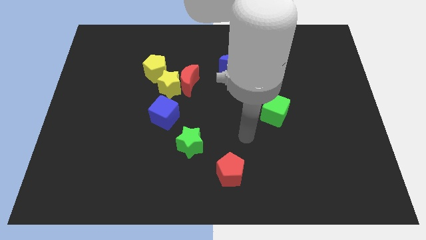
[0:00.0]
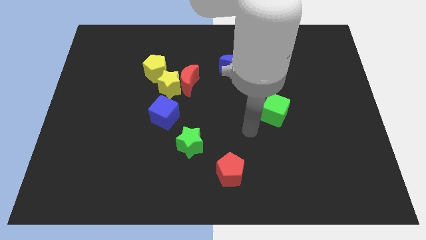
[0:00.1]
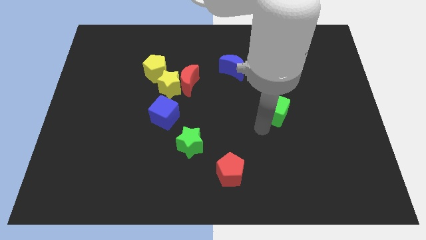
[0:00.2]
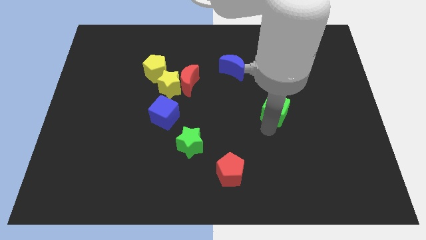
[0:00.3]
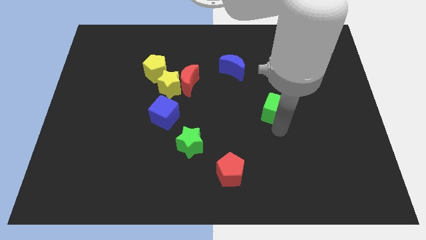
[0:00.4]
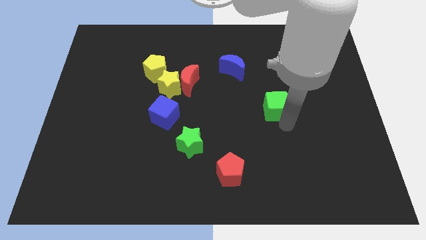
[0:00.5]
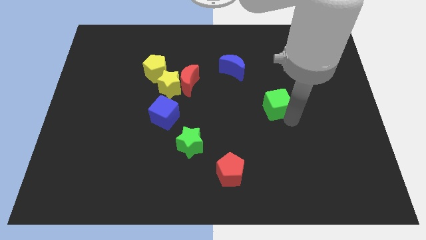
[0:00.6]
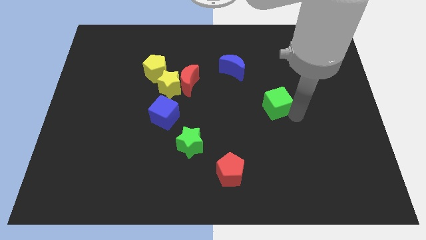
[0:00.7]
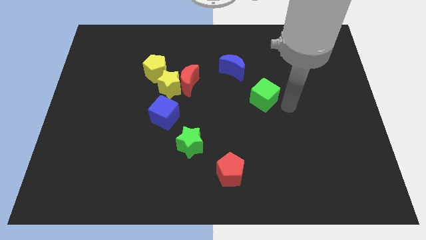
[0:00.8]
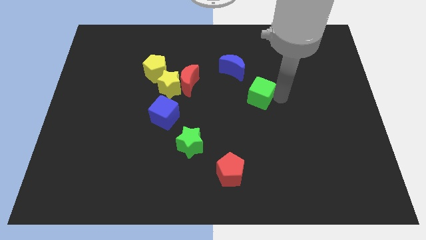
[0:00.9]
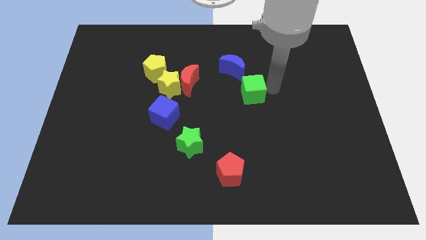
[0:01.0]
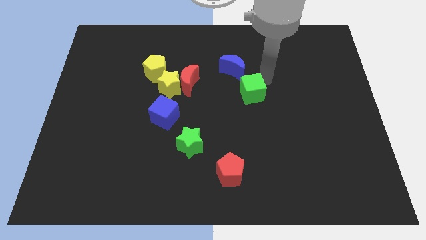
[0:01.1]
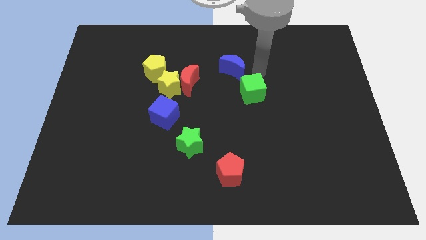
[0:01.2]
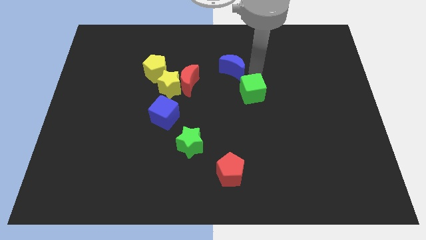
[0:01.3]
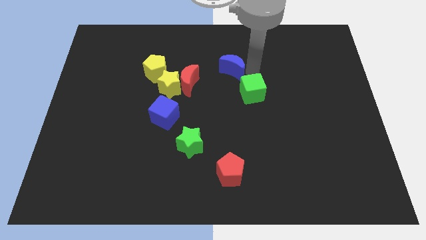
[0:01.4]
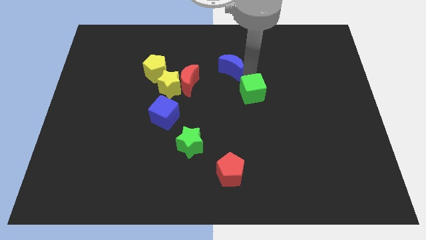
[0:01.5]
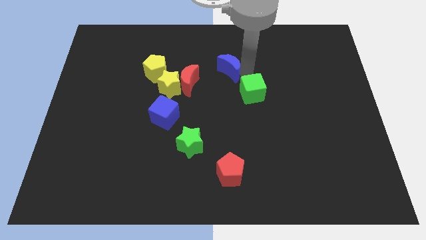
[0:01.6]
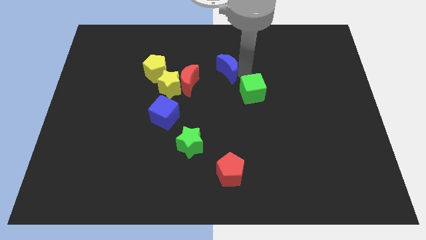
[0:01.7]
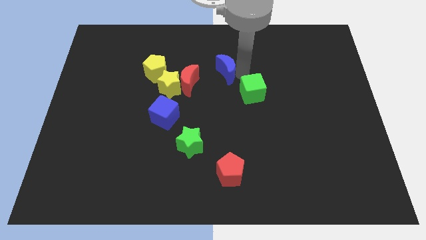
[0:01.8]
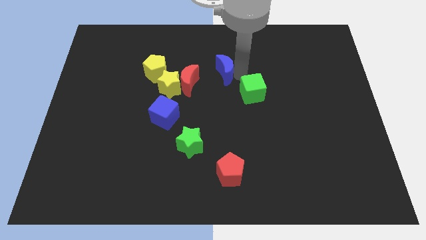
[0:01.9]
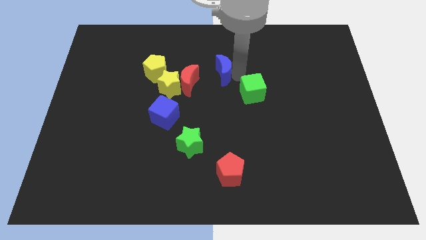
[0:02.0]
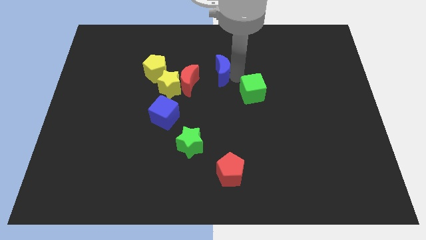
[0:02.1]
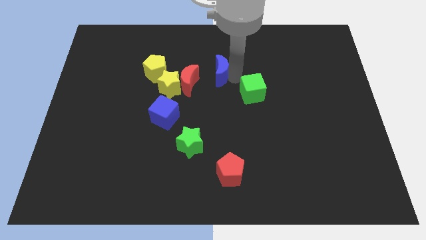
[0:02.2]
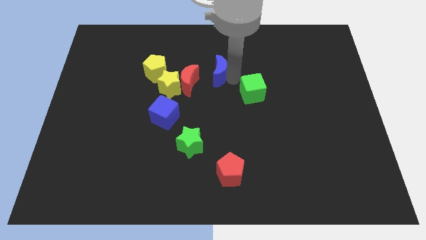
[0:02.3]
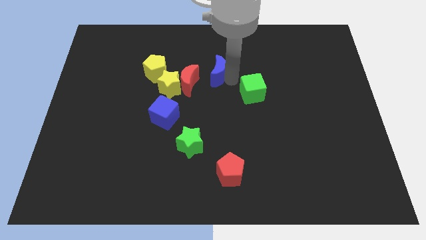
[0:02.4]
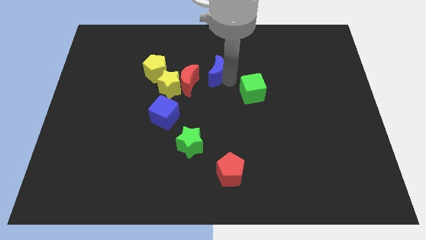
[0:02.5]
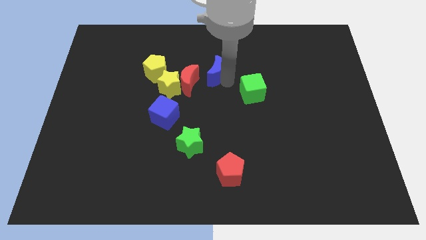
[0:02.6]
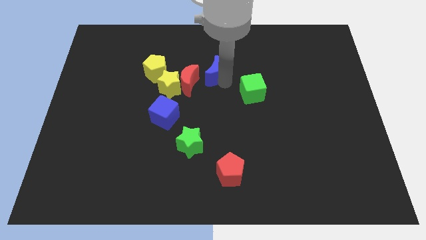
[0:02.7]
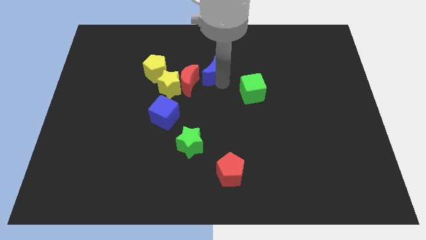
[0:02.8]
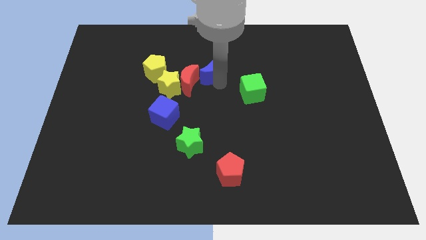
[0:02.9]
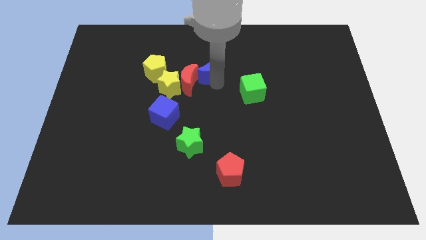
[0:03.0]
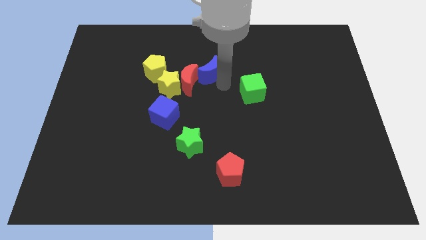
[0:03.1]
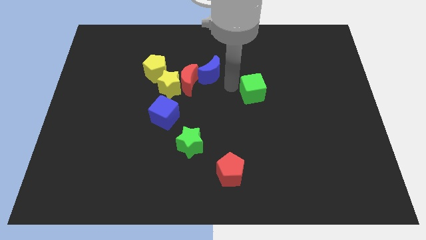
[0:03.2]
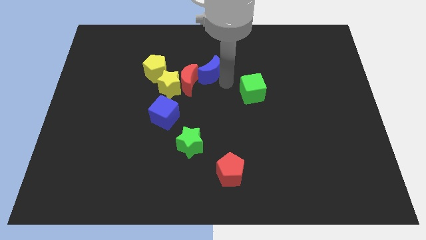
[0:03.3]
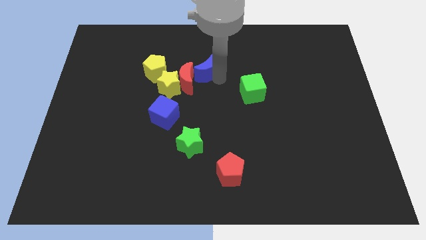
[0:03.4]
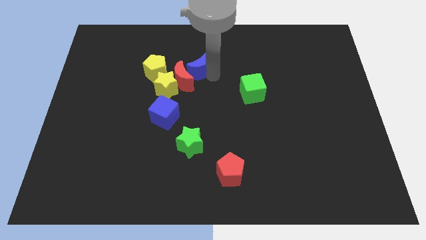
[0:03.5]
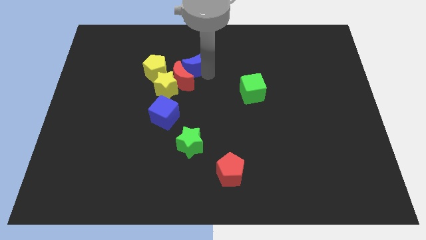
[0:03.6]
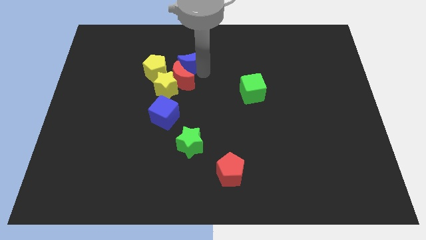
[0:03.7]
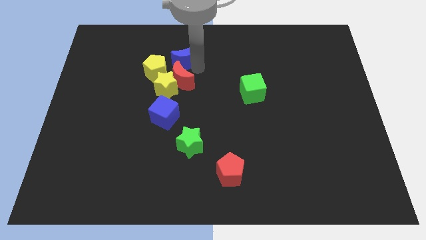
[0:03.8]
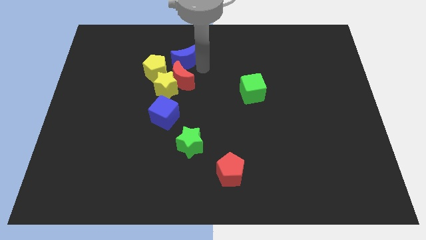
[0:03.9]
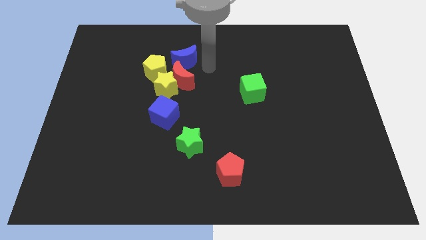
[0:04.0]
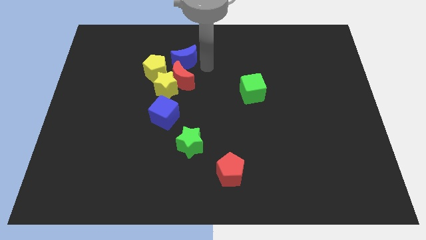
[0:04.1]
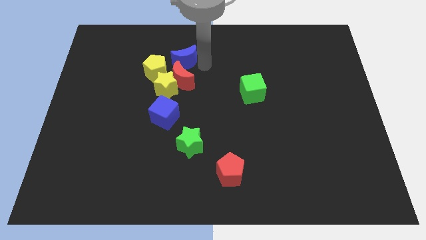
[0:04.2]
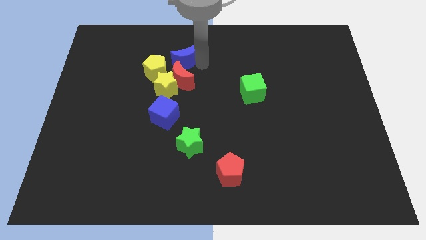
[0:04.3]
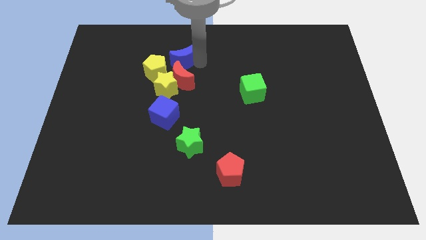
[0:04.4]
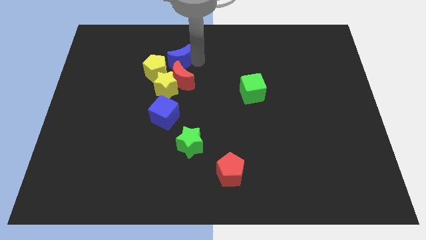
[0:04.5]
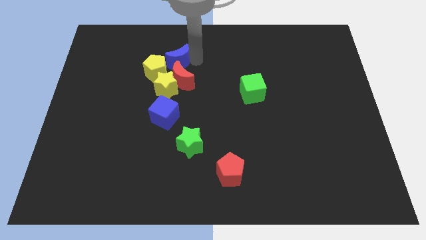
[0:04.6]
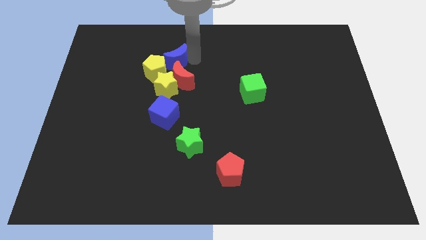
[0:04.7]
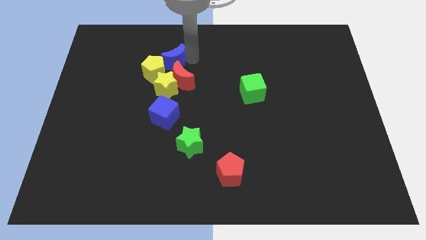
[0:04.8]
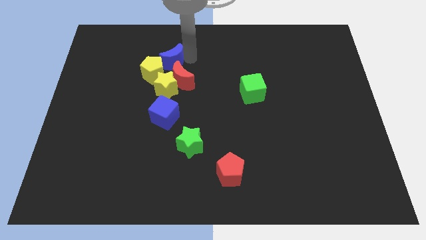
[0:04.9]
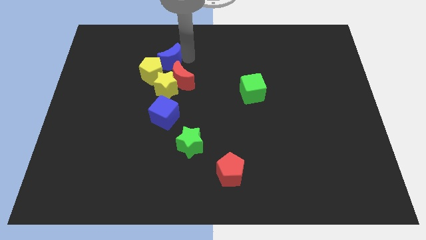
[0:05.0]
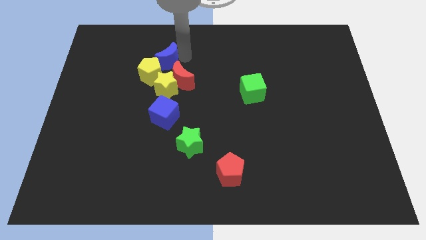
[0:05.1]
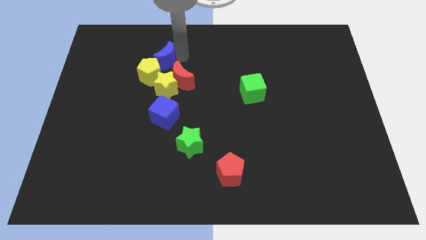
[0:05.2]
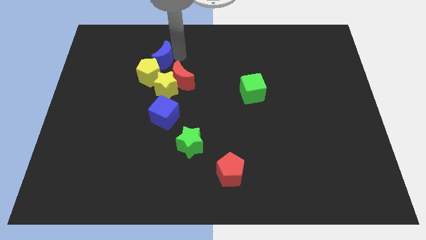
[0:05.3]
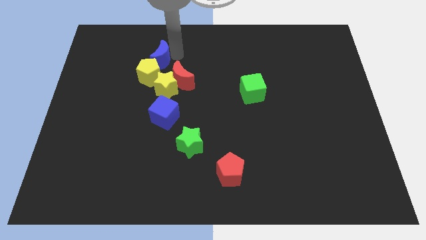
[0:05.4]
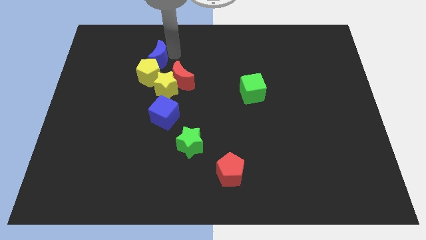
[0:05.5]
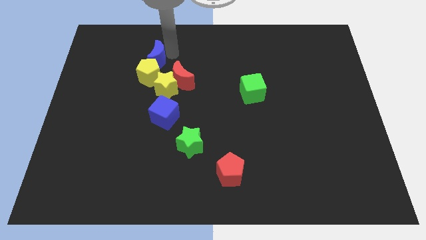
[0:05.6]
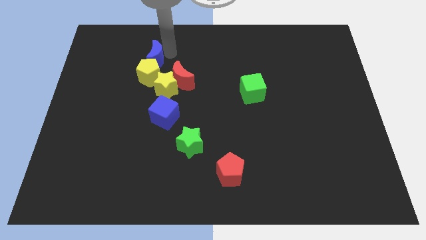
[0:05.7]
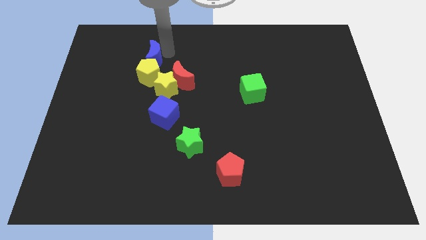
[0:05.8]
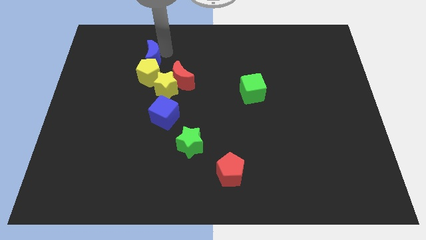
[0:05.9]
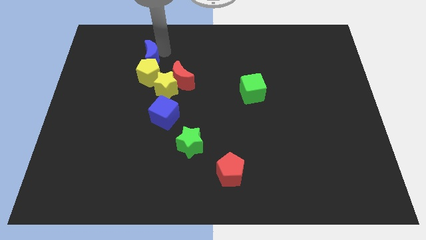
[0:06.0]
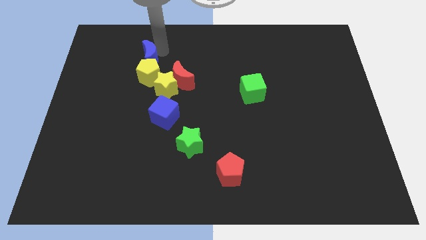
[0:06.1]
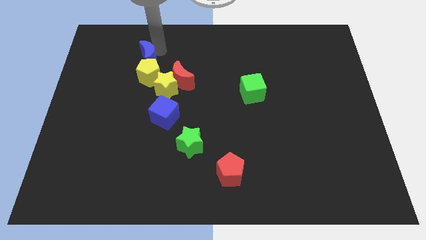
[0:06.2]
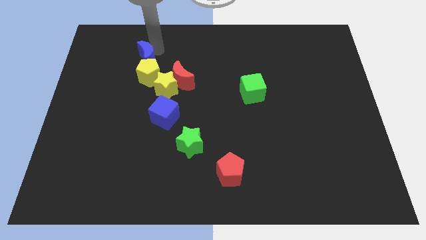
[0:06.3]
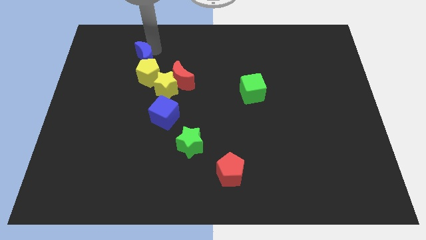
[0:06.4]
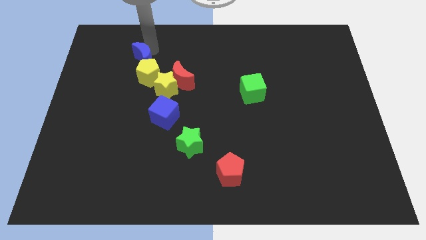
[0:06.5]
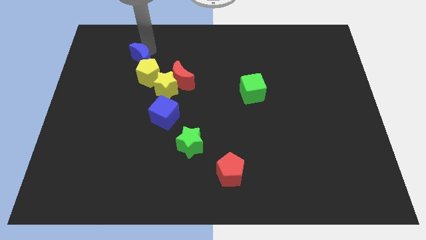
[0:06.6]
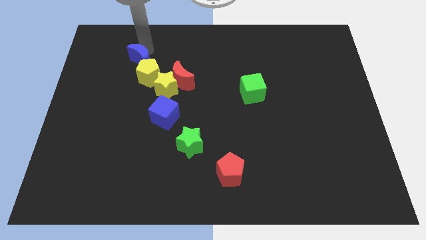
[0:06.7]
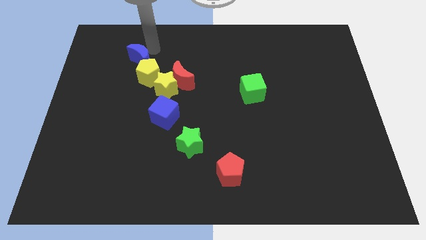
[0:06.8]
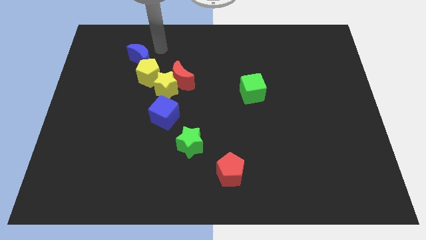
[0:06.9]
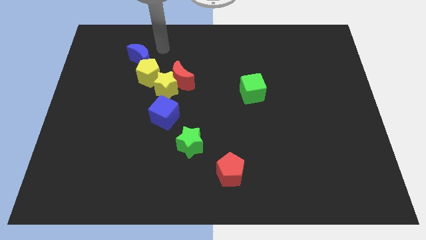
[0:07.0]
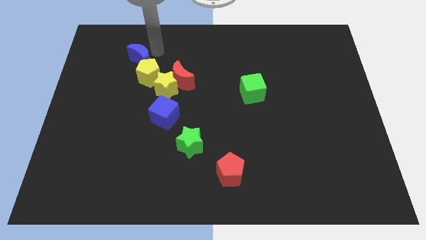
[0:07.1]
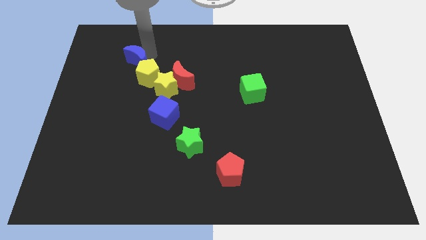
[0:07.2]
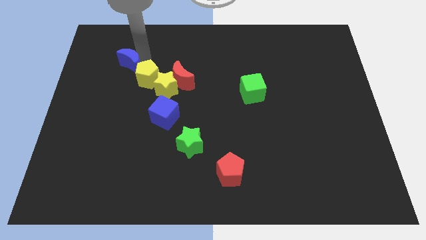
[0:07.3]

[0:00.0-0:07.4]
move the blue moon left of the yellow pentagon
